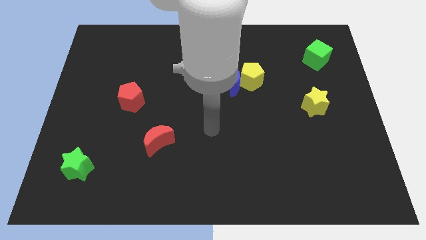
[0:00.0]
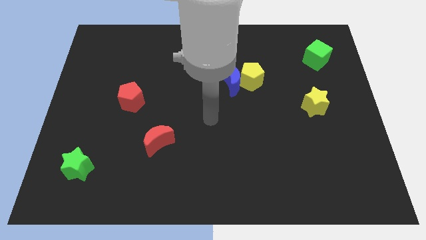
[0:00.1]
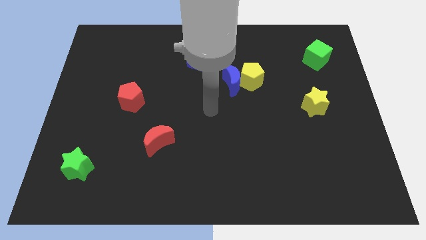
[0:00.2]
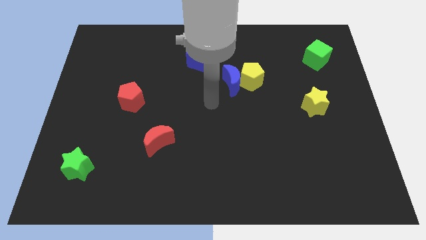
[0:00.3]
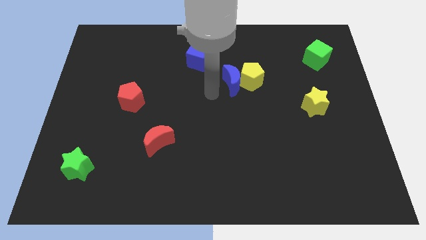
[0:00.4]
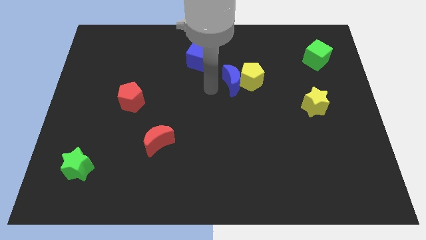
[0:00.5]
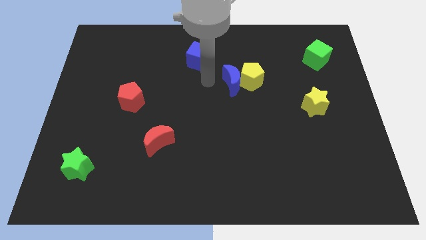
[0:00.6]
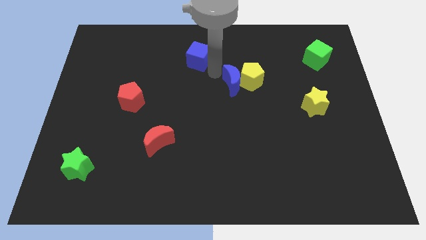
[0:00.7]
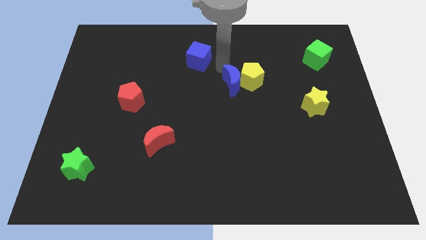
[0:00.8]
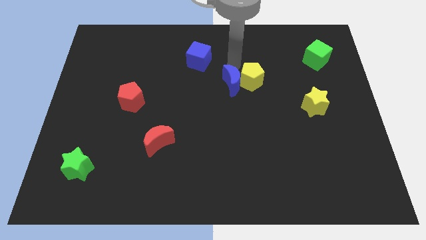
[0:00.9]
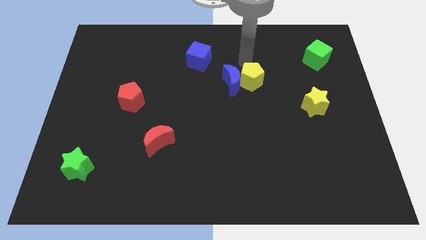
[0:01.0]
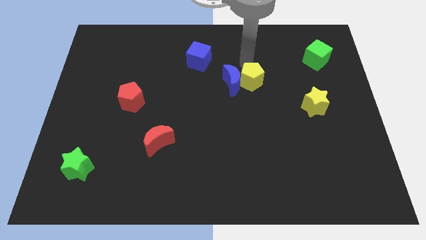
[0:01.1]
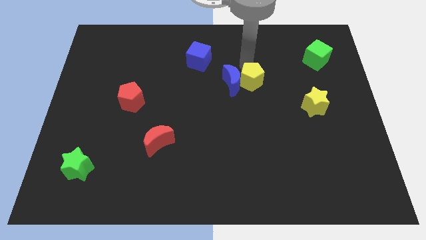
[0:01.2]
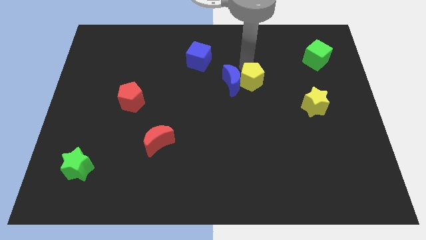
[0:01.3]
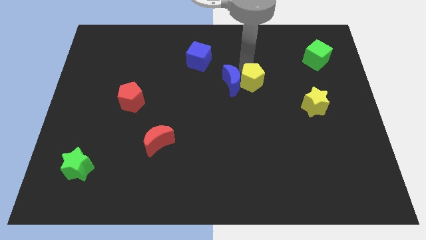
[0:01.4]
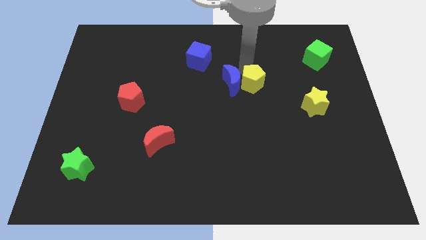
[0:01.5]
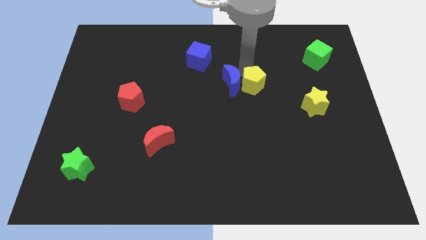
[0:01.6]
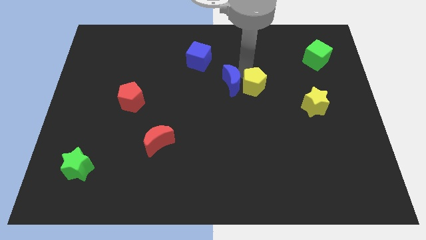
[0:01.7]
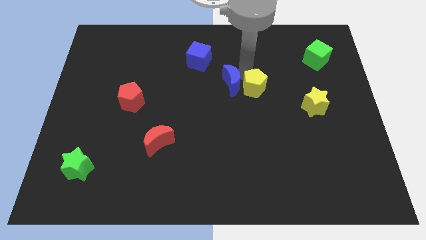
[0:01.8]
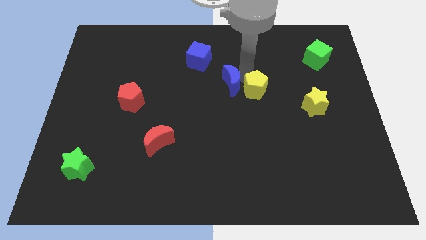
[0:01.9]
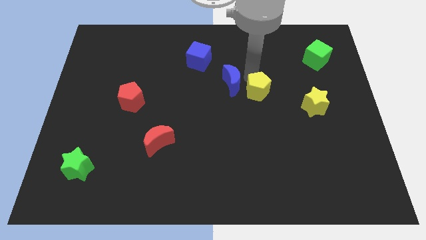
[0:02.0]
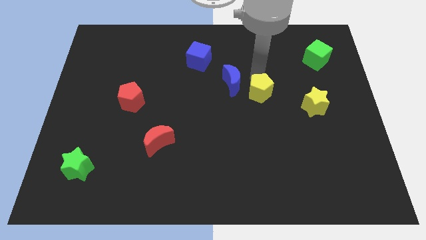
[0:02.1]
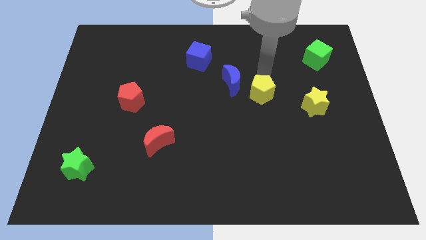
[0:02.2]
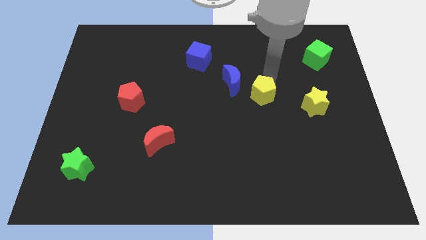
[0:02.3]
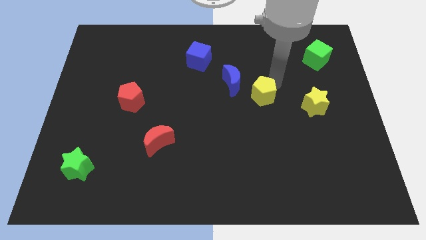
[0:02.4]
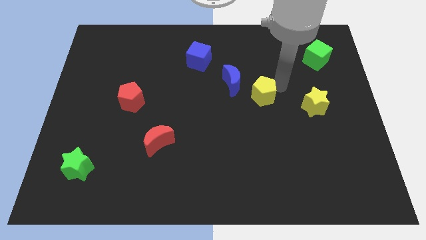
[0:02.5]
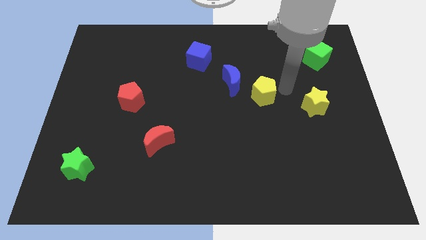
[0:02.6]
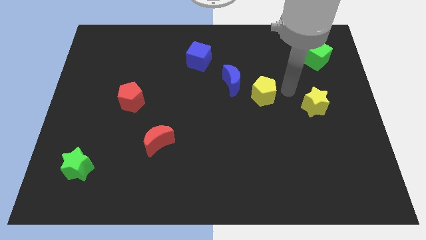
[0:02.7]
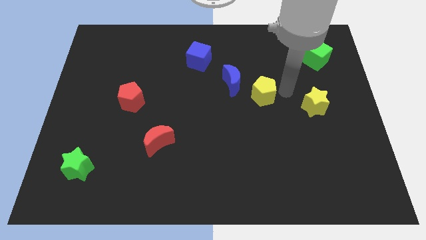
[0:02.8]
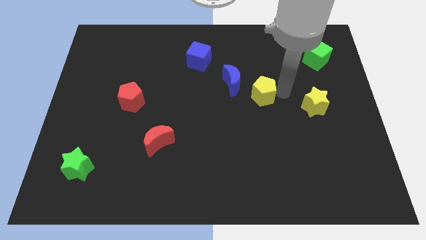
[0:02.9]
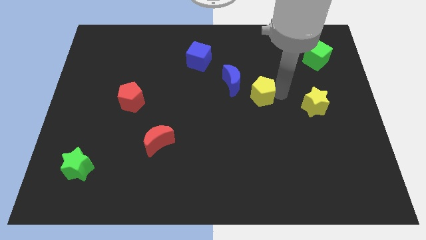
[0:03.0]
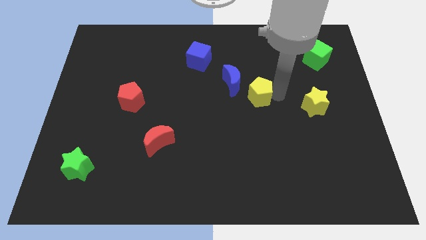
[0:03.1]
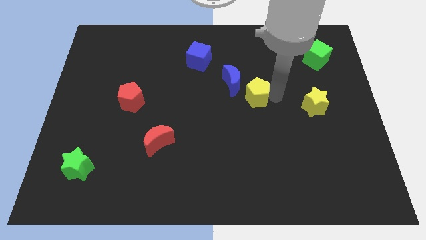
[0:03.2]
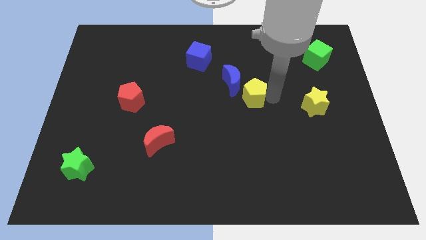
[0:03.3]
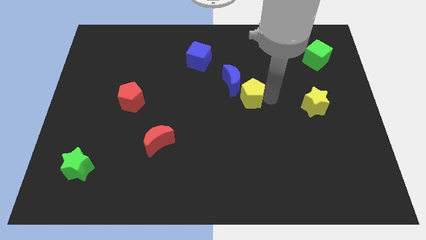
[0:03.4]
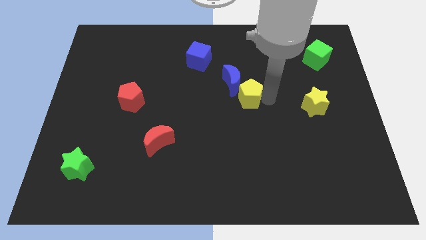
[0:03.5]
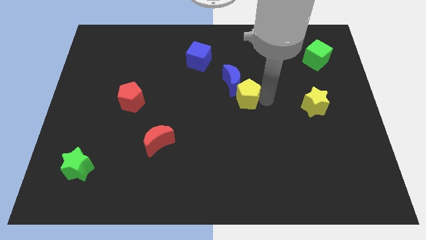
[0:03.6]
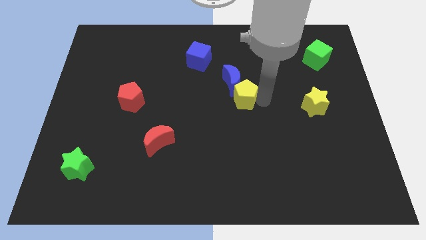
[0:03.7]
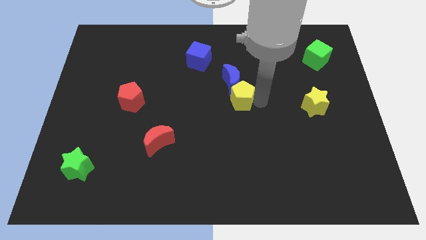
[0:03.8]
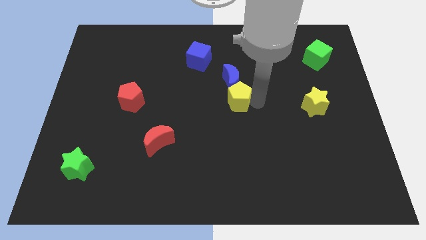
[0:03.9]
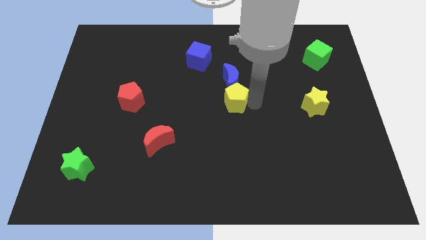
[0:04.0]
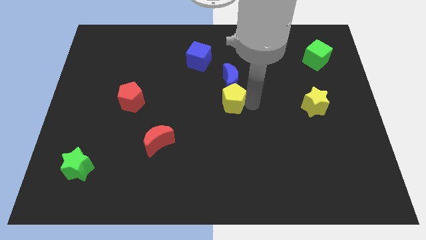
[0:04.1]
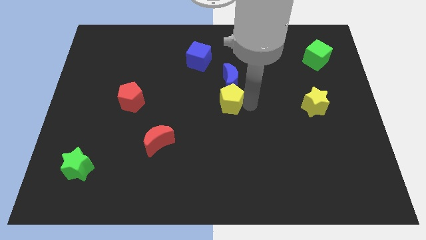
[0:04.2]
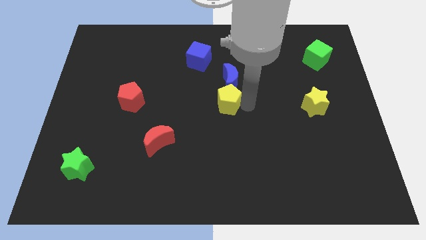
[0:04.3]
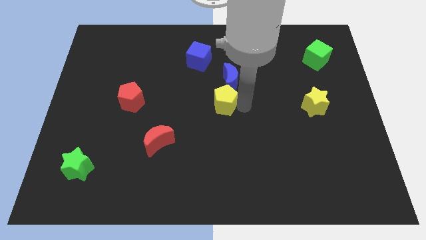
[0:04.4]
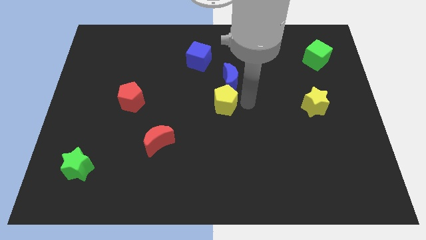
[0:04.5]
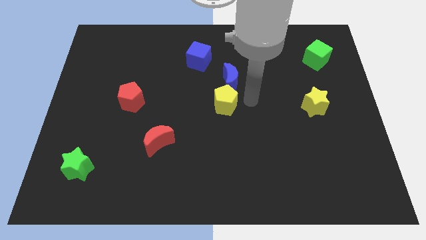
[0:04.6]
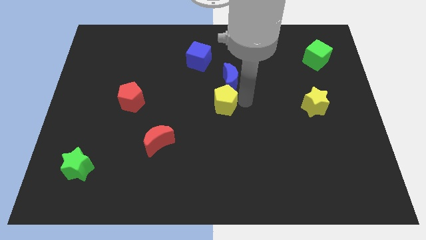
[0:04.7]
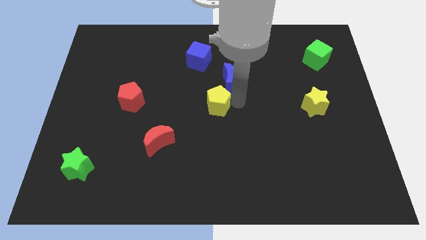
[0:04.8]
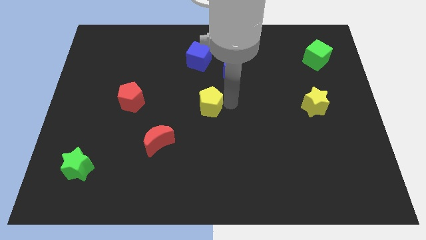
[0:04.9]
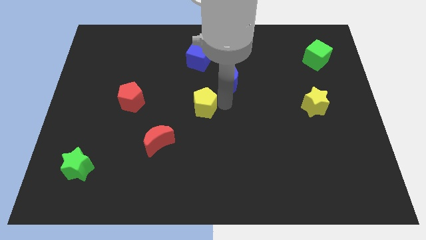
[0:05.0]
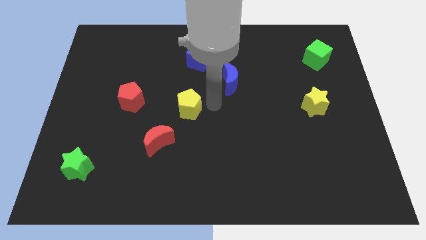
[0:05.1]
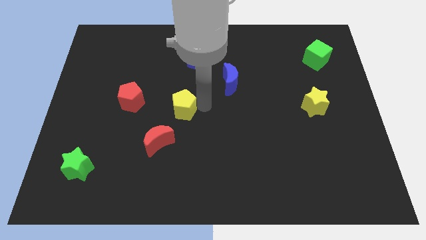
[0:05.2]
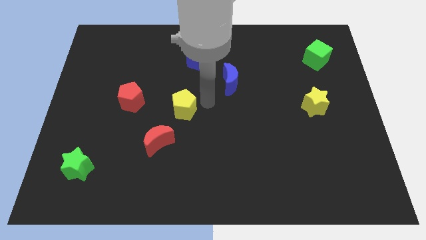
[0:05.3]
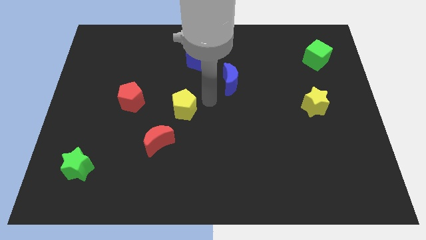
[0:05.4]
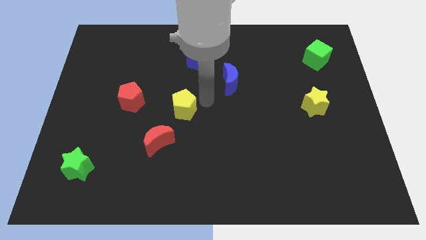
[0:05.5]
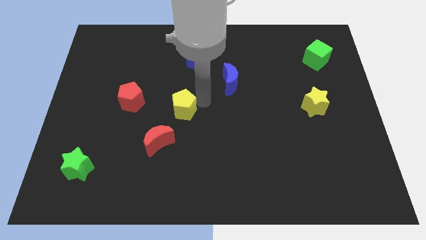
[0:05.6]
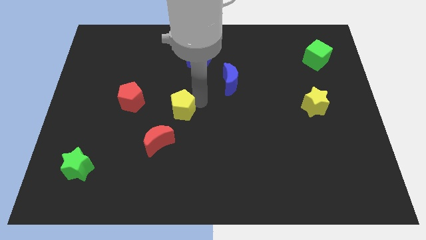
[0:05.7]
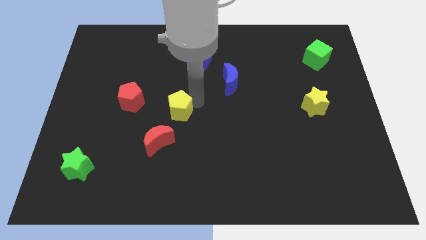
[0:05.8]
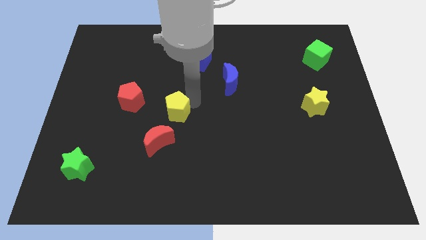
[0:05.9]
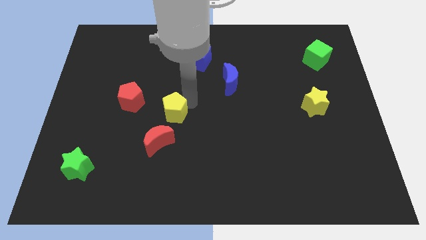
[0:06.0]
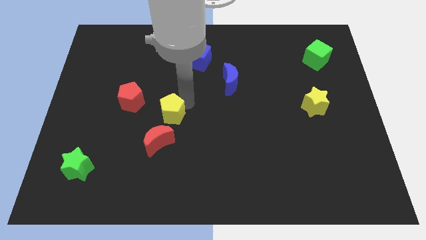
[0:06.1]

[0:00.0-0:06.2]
push the yellow pentagon diagonally down and to the right of the red pentagon
